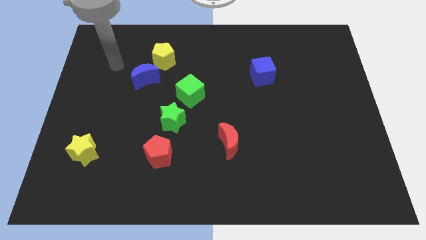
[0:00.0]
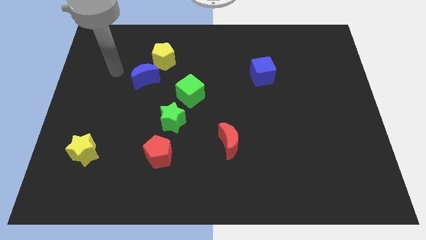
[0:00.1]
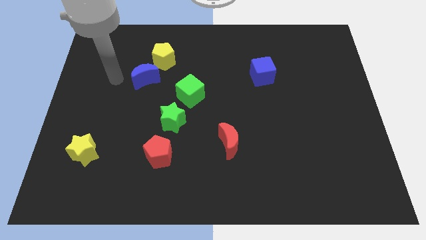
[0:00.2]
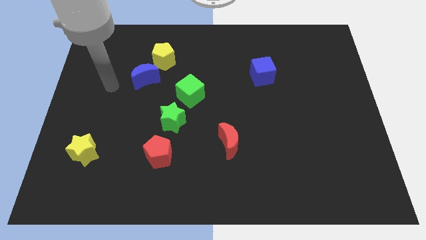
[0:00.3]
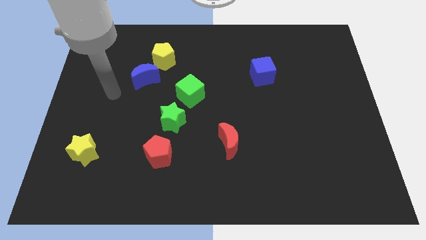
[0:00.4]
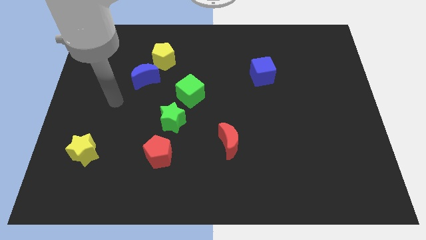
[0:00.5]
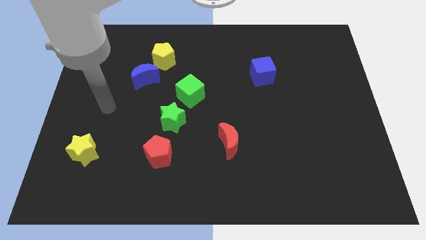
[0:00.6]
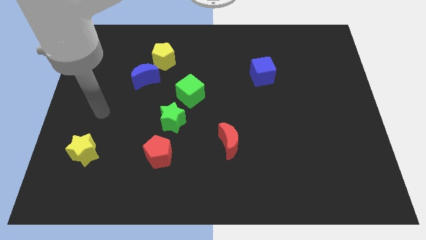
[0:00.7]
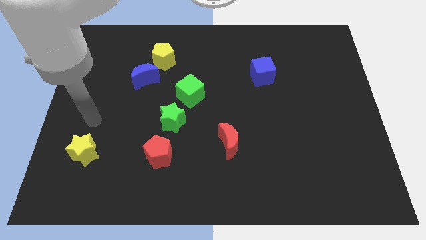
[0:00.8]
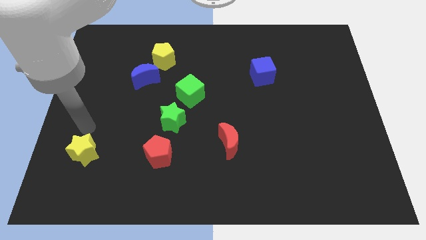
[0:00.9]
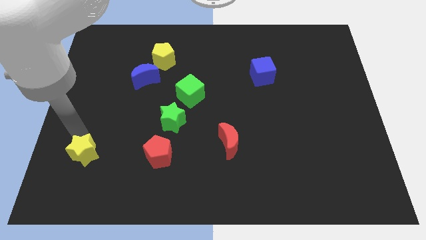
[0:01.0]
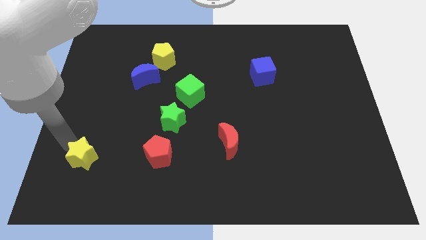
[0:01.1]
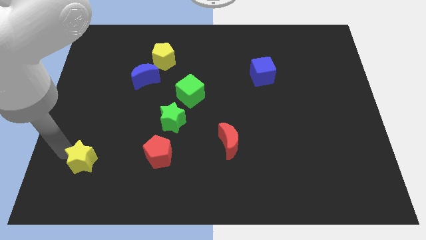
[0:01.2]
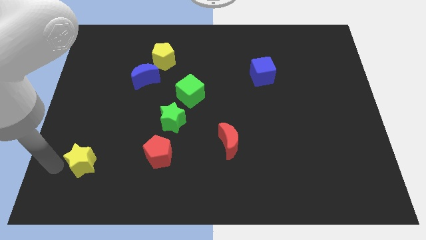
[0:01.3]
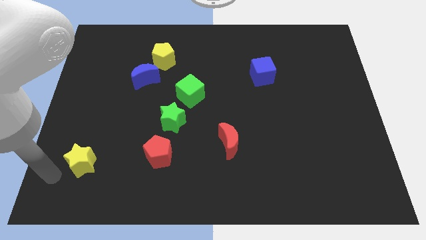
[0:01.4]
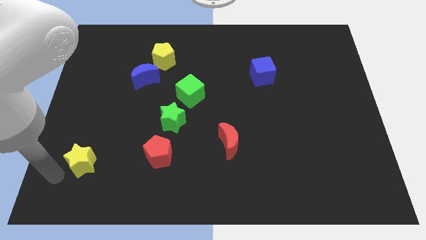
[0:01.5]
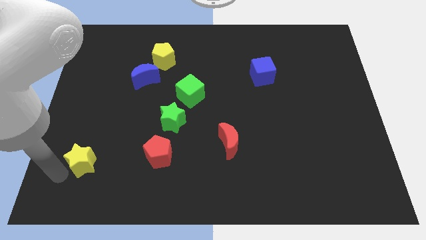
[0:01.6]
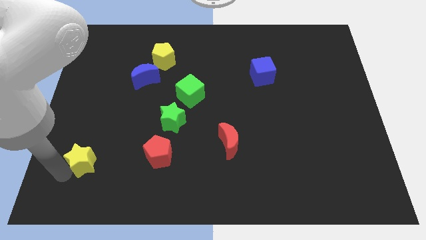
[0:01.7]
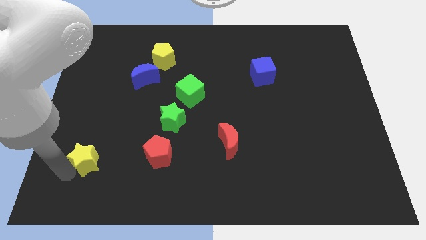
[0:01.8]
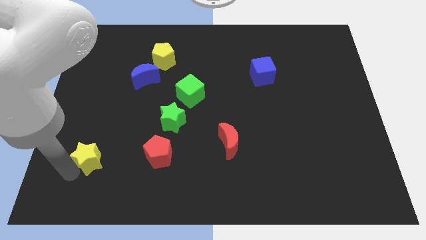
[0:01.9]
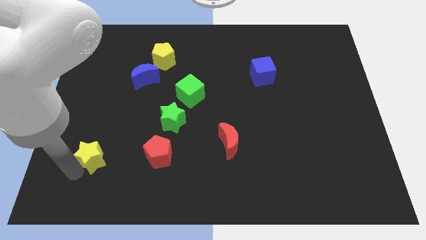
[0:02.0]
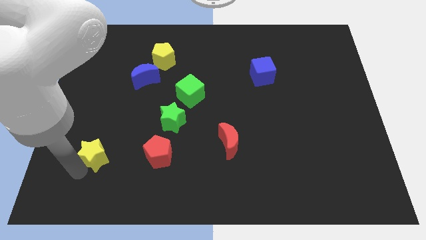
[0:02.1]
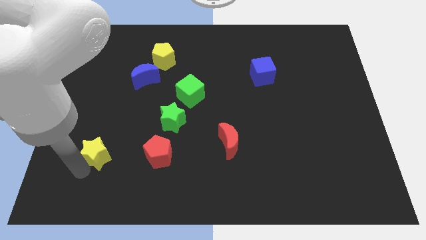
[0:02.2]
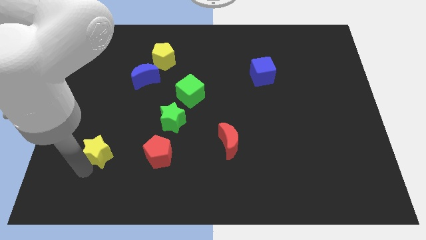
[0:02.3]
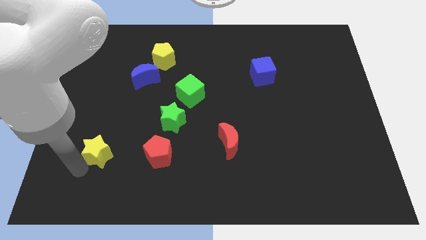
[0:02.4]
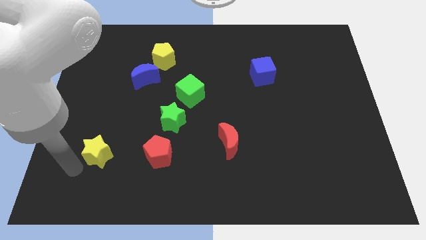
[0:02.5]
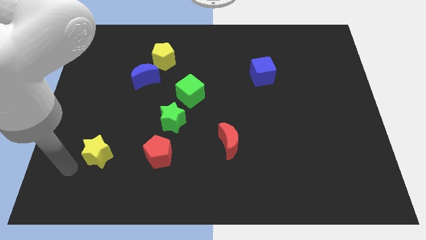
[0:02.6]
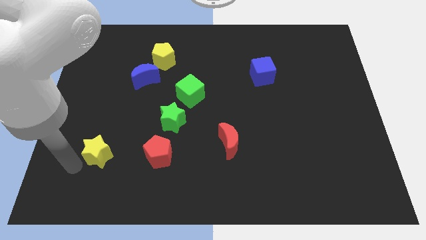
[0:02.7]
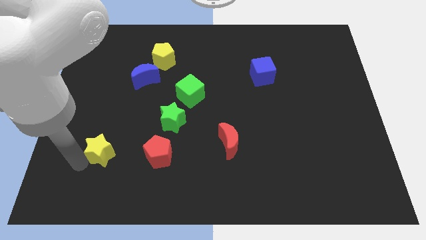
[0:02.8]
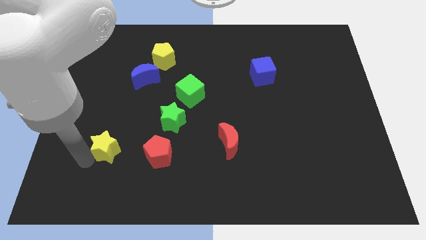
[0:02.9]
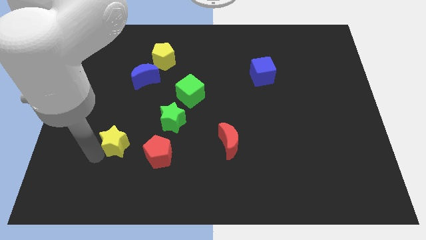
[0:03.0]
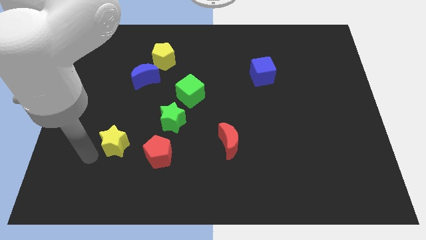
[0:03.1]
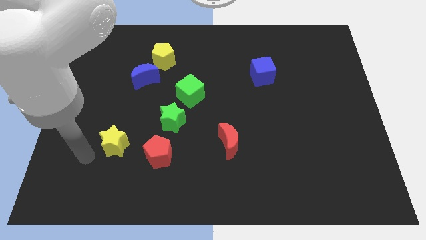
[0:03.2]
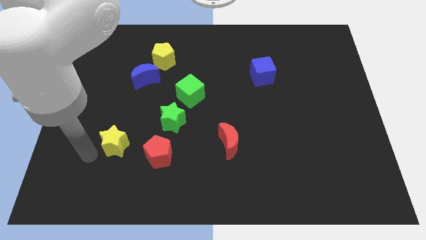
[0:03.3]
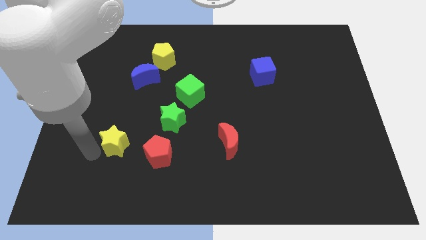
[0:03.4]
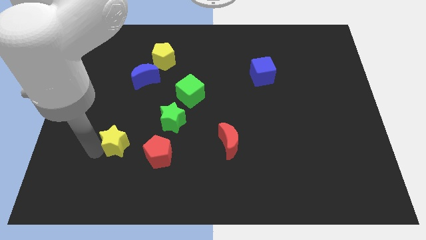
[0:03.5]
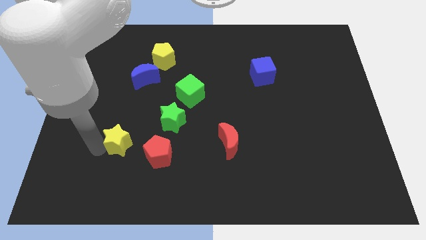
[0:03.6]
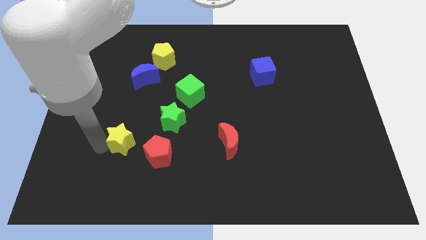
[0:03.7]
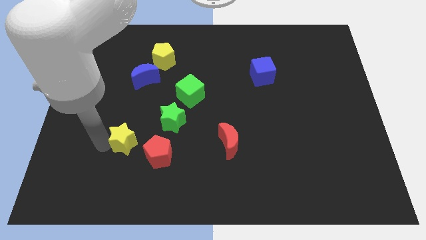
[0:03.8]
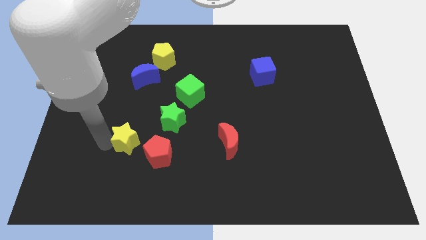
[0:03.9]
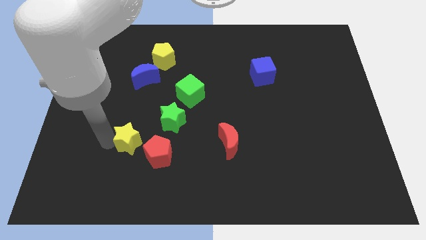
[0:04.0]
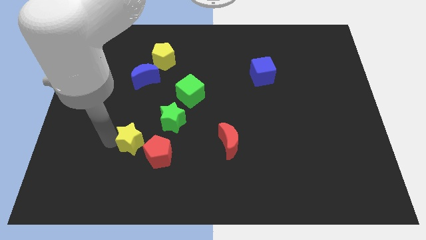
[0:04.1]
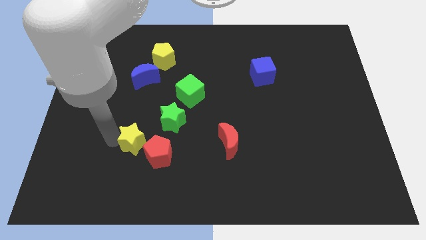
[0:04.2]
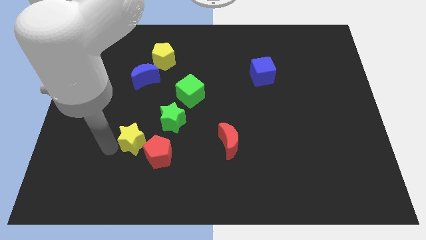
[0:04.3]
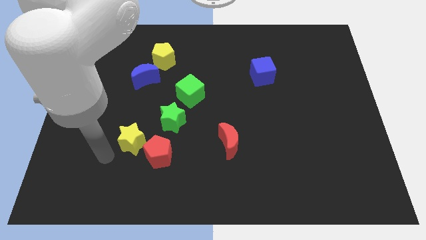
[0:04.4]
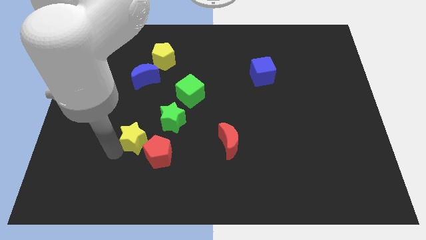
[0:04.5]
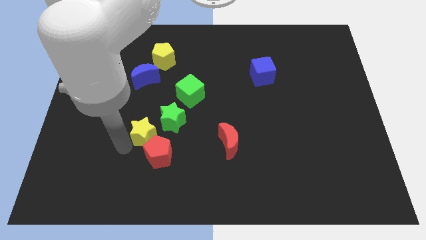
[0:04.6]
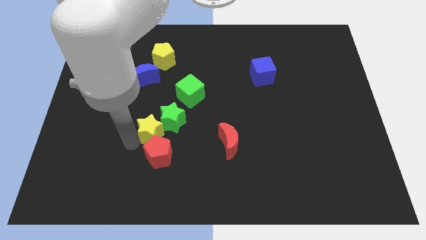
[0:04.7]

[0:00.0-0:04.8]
put the yellow star to the green star

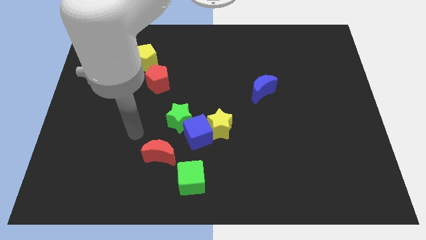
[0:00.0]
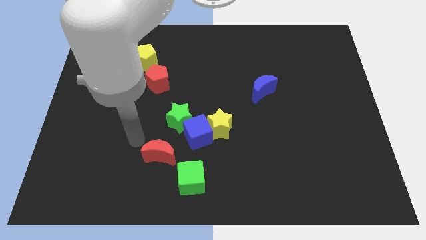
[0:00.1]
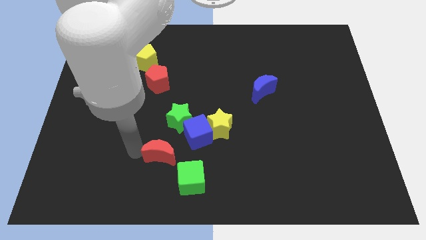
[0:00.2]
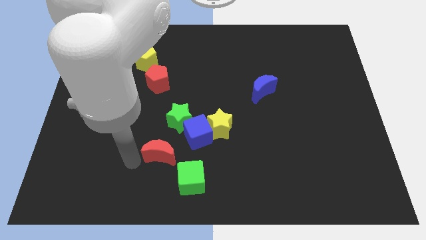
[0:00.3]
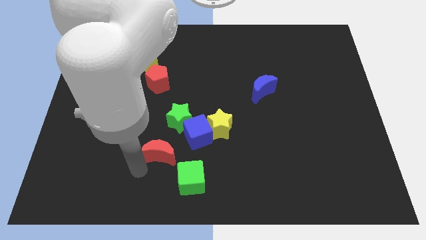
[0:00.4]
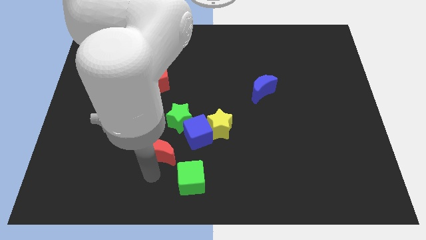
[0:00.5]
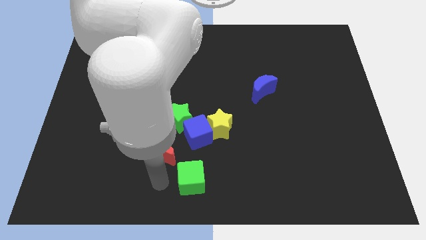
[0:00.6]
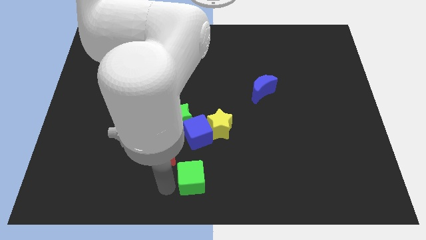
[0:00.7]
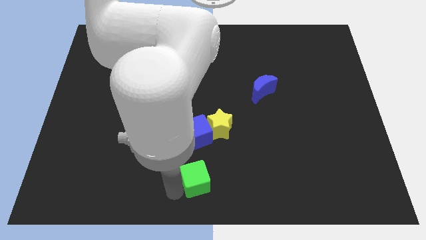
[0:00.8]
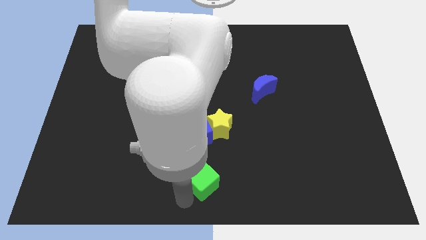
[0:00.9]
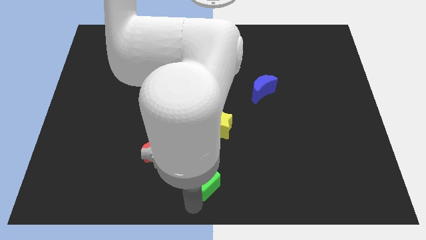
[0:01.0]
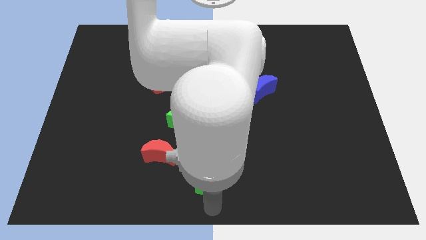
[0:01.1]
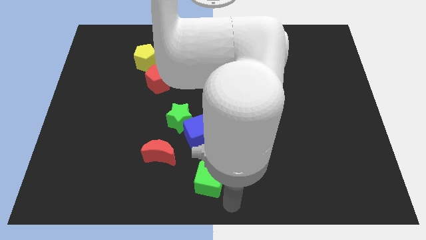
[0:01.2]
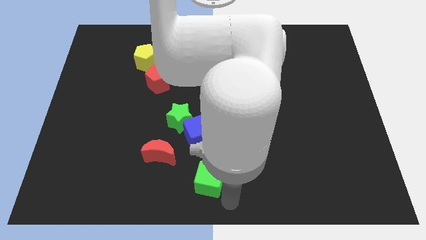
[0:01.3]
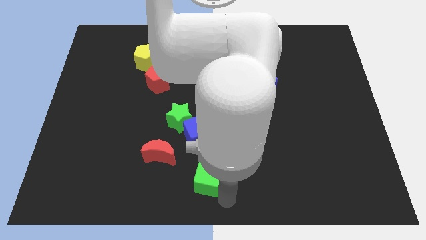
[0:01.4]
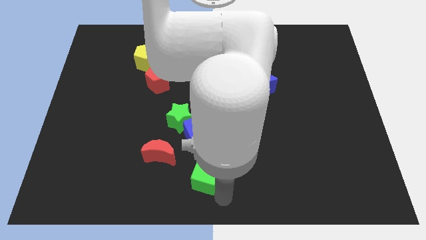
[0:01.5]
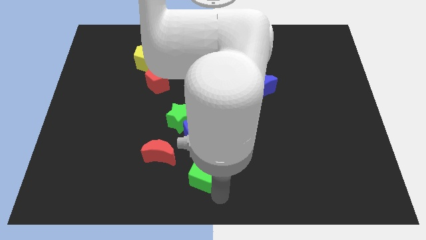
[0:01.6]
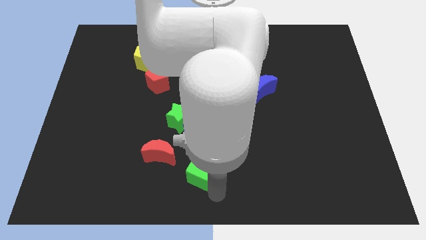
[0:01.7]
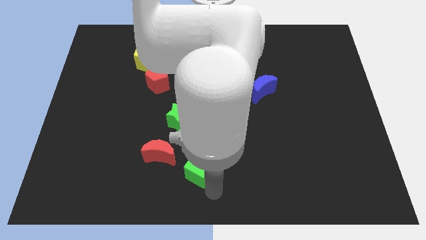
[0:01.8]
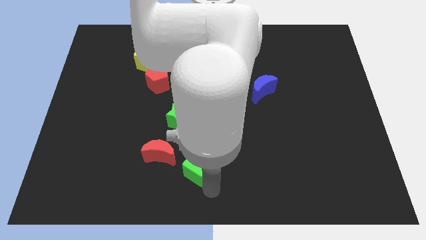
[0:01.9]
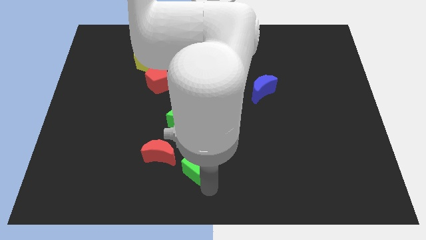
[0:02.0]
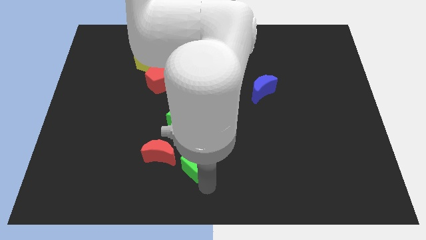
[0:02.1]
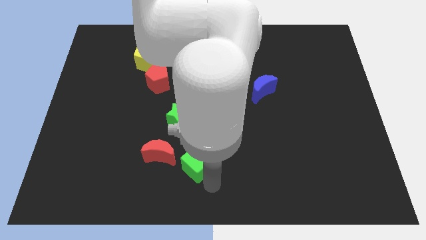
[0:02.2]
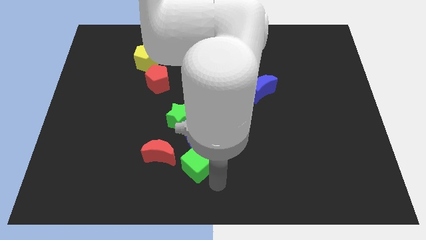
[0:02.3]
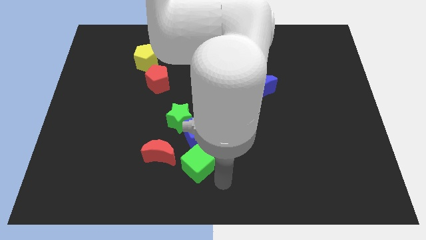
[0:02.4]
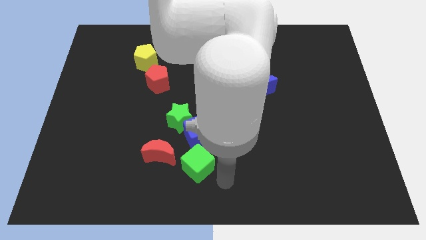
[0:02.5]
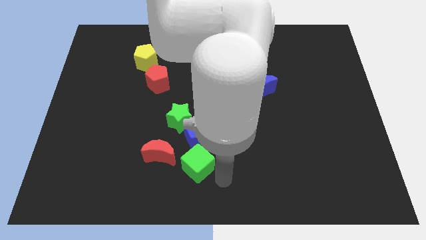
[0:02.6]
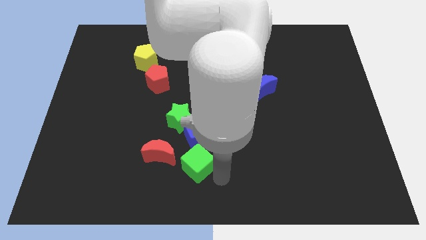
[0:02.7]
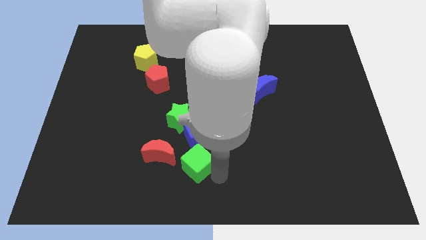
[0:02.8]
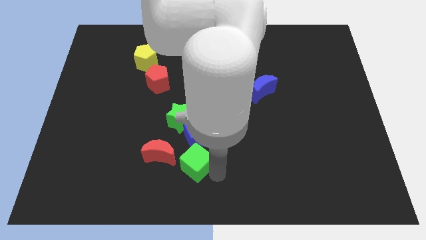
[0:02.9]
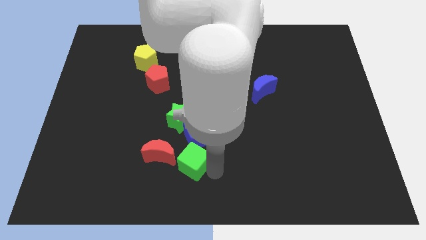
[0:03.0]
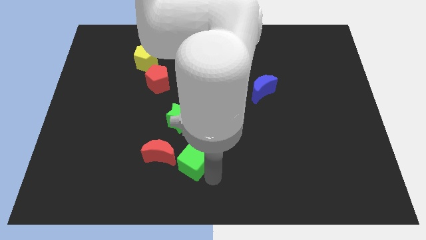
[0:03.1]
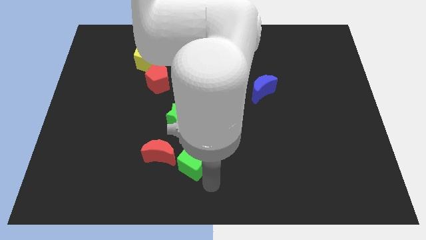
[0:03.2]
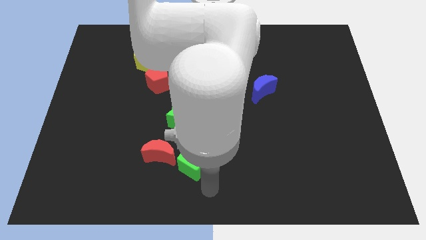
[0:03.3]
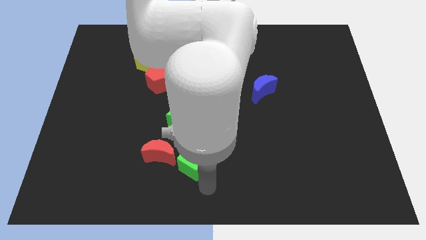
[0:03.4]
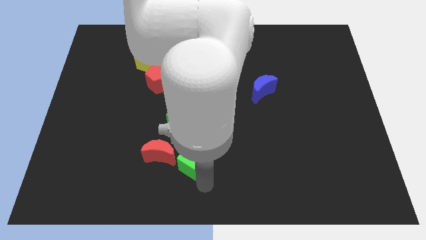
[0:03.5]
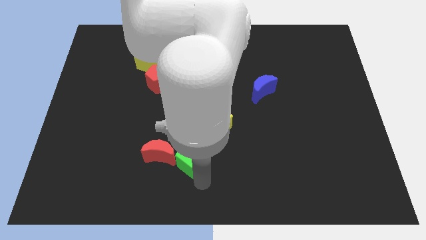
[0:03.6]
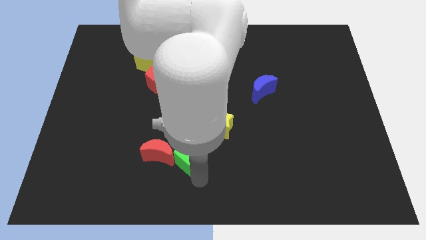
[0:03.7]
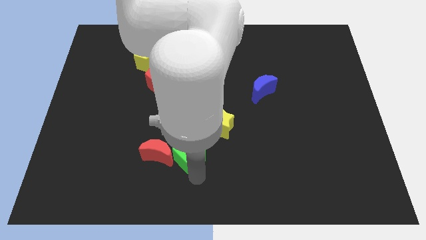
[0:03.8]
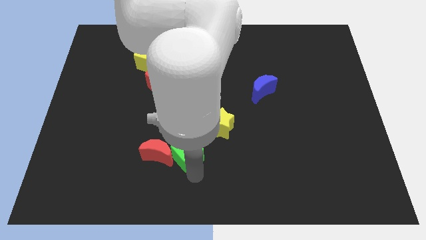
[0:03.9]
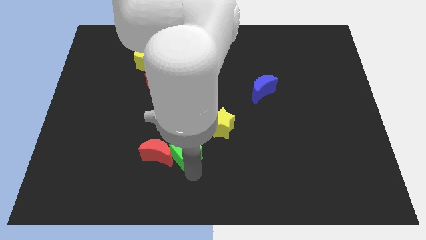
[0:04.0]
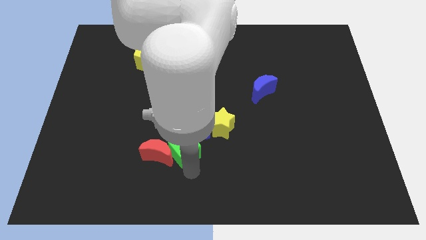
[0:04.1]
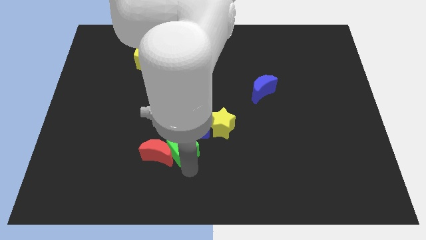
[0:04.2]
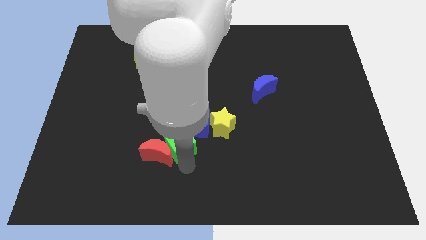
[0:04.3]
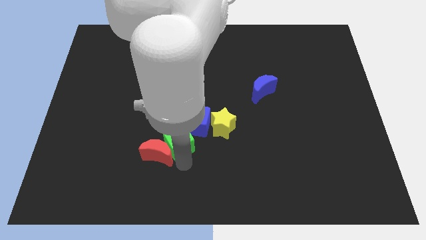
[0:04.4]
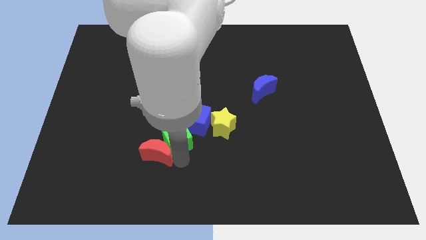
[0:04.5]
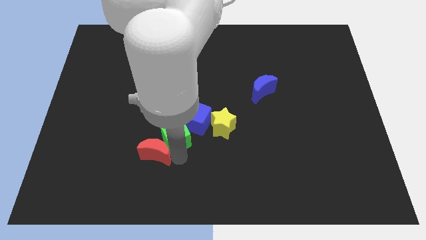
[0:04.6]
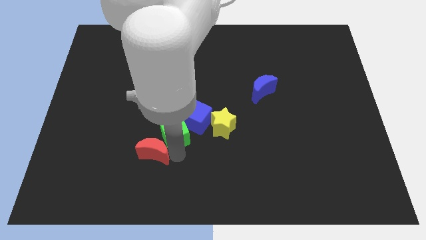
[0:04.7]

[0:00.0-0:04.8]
put the green cube to the green star
